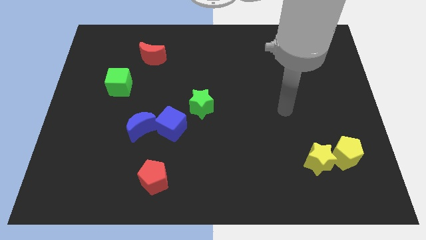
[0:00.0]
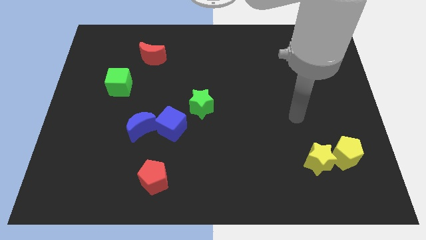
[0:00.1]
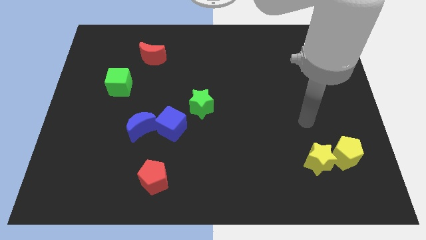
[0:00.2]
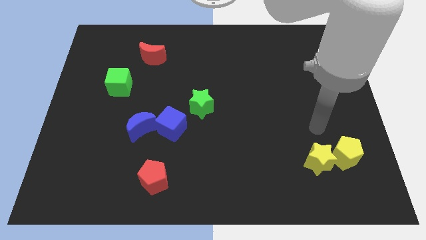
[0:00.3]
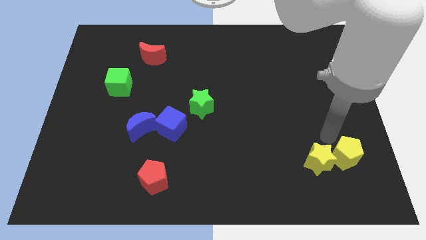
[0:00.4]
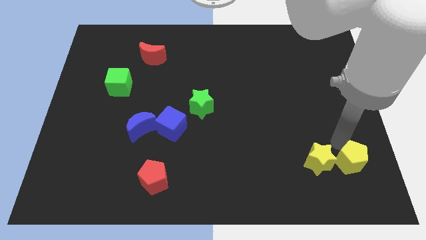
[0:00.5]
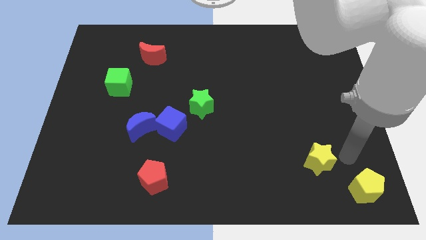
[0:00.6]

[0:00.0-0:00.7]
separate the yellow star from the yellow pentagon

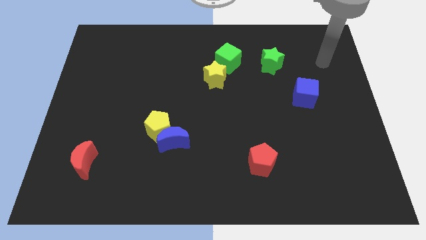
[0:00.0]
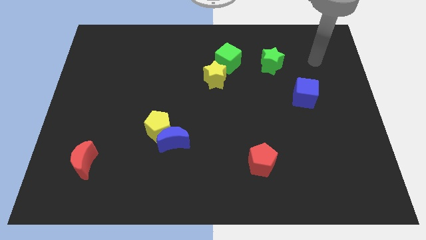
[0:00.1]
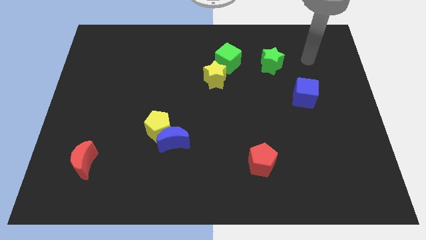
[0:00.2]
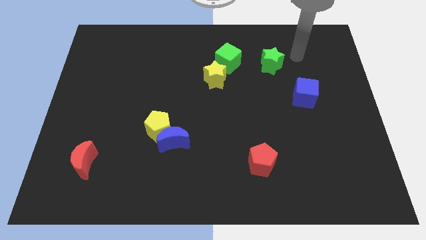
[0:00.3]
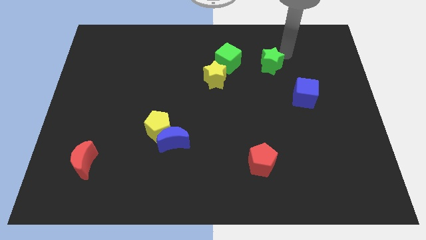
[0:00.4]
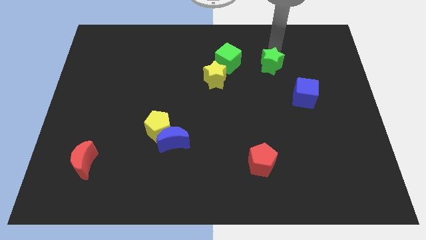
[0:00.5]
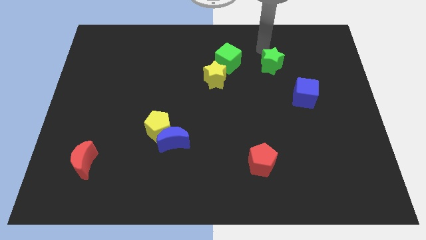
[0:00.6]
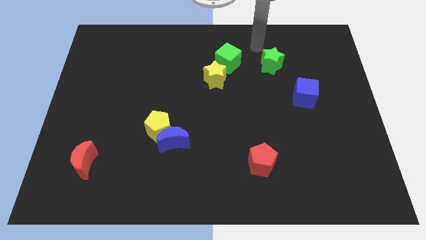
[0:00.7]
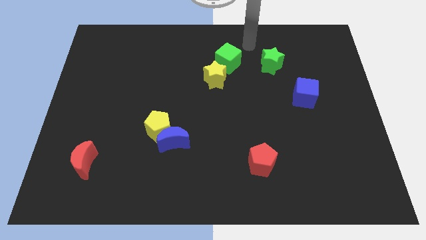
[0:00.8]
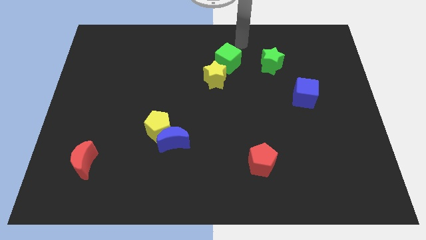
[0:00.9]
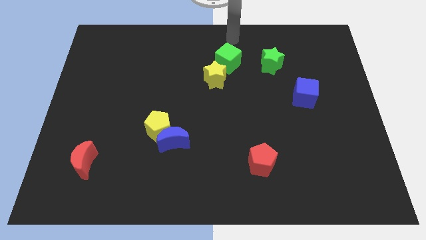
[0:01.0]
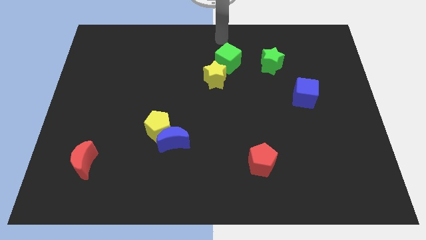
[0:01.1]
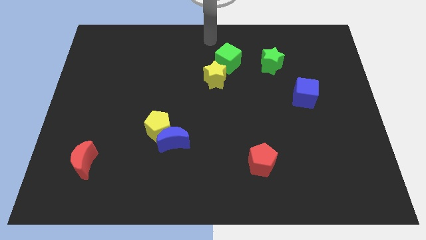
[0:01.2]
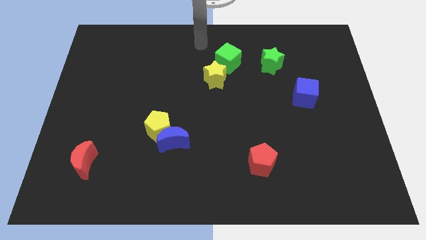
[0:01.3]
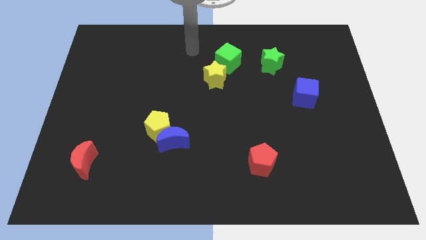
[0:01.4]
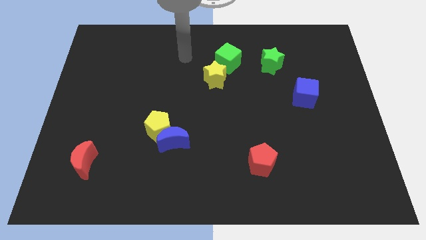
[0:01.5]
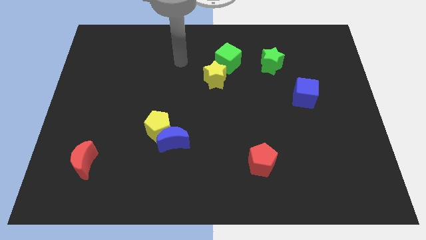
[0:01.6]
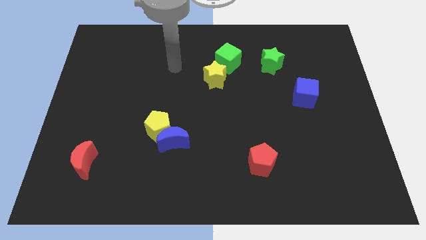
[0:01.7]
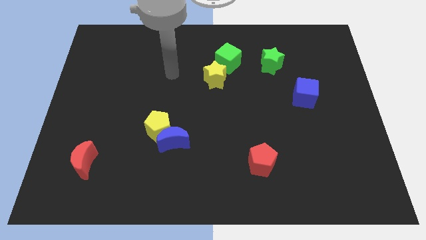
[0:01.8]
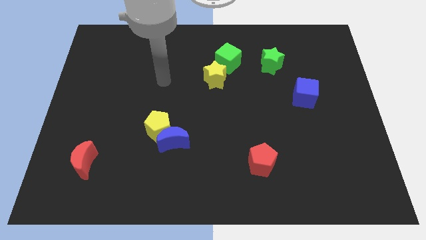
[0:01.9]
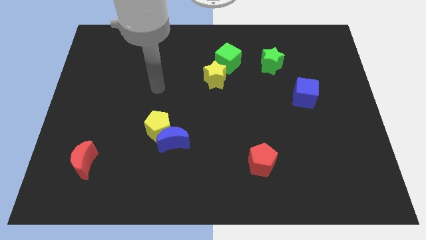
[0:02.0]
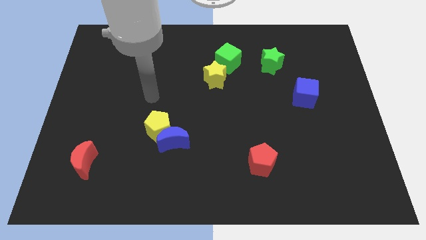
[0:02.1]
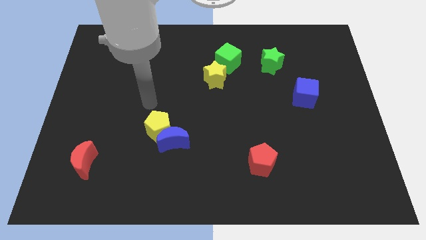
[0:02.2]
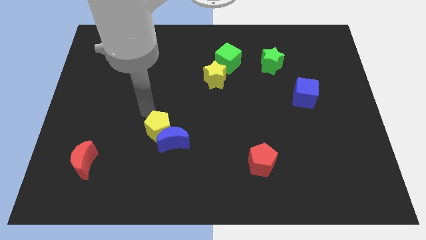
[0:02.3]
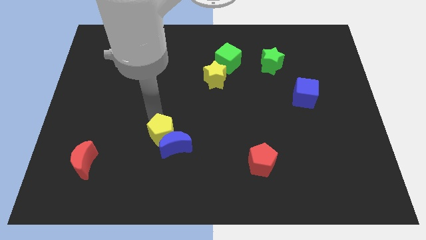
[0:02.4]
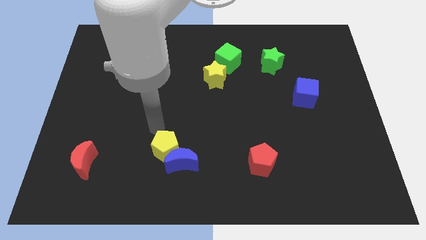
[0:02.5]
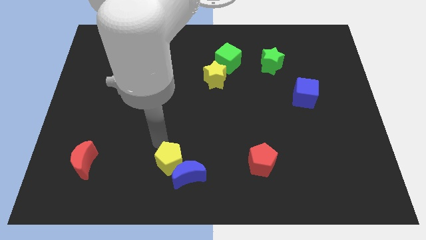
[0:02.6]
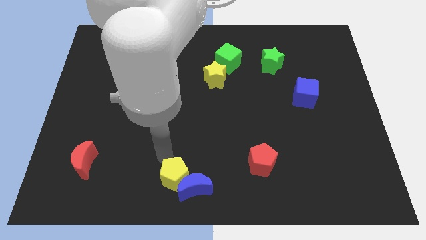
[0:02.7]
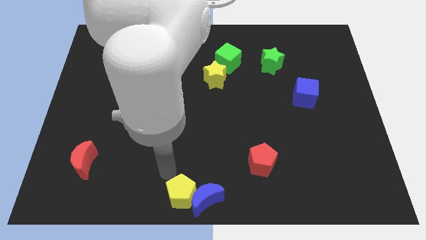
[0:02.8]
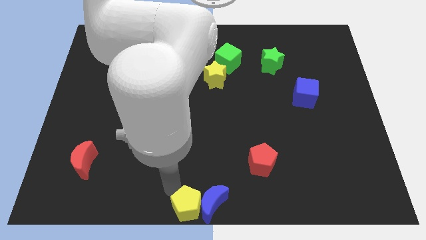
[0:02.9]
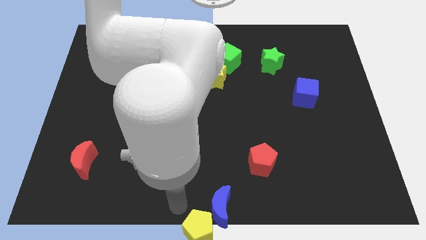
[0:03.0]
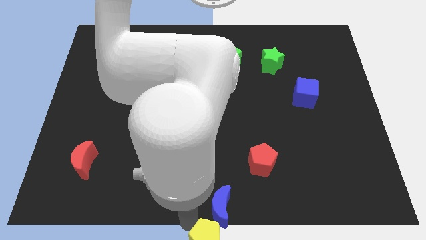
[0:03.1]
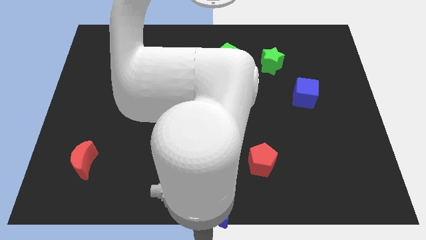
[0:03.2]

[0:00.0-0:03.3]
separate the blue moon from the yellow pentagon

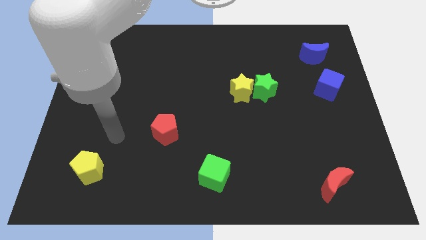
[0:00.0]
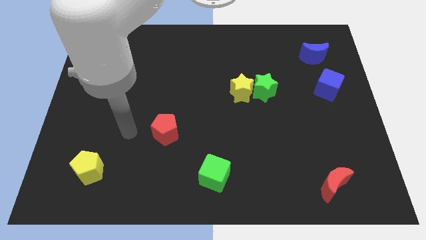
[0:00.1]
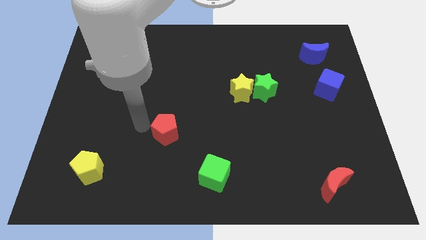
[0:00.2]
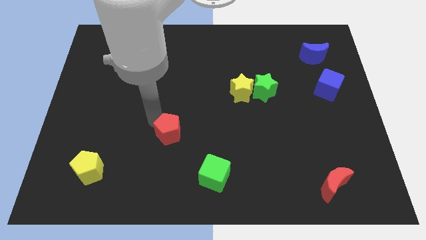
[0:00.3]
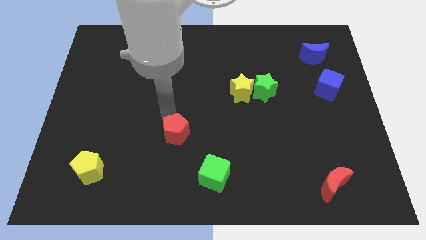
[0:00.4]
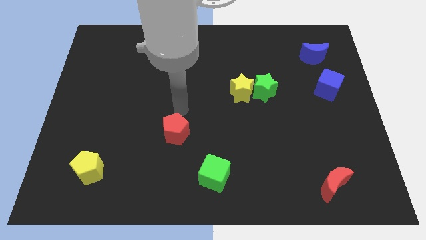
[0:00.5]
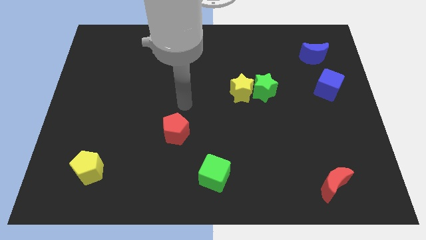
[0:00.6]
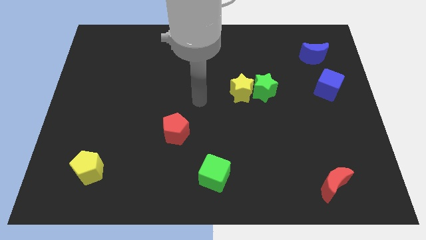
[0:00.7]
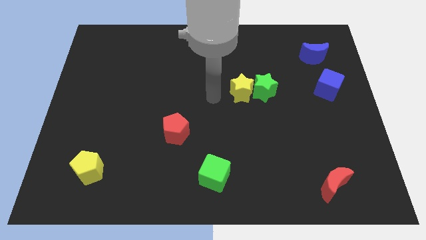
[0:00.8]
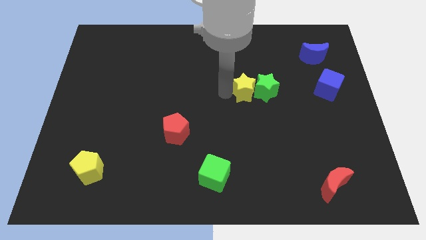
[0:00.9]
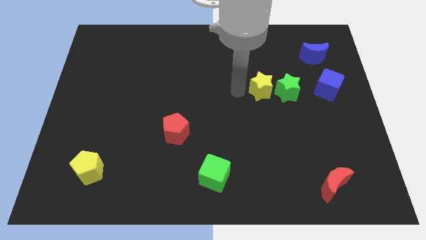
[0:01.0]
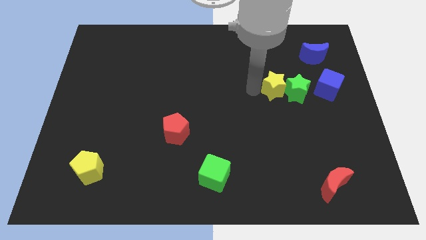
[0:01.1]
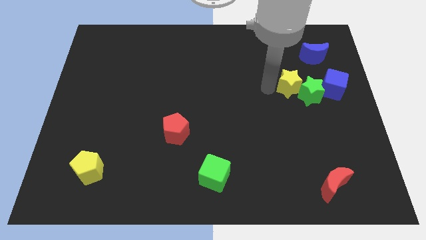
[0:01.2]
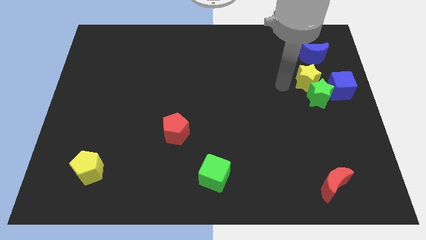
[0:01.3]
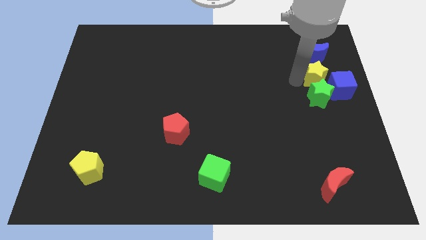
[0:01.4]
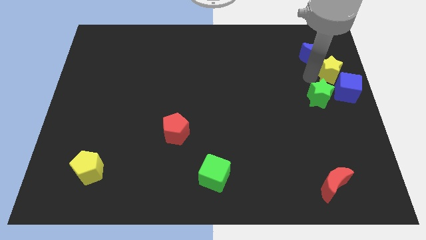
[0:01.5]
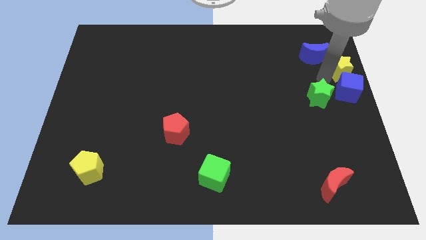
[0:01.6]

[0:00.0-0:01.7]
move the green star away from the yellow star

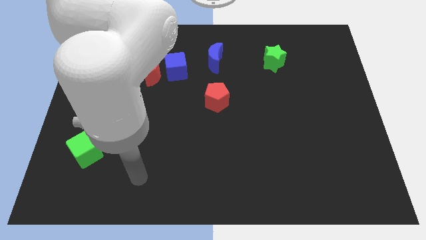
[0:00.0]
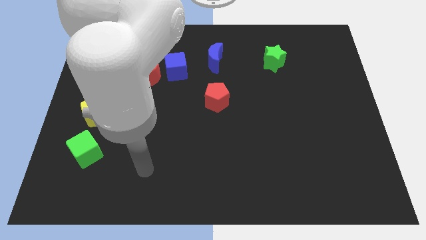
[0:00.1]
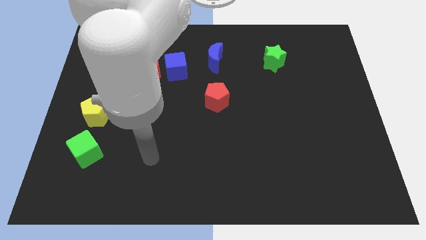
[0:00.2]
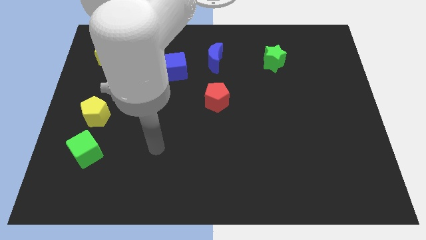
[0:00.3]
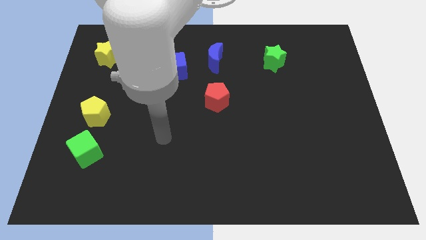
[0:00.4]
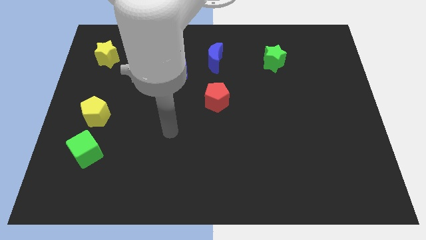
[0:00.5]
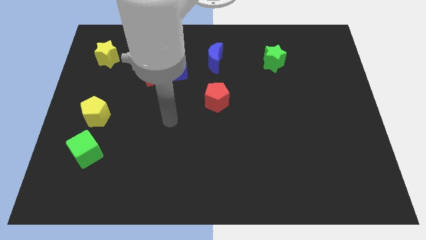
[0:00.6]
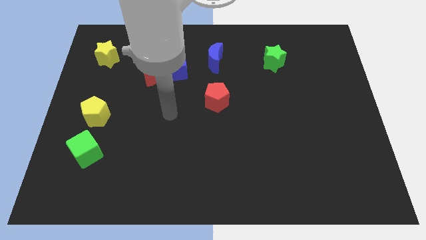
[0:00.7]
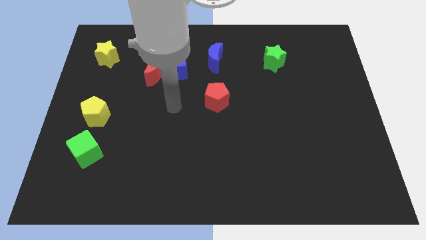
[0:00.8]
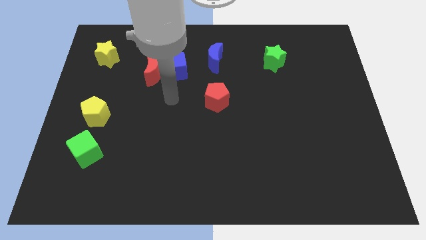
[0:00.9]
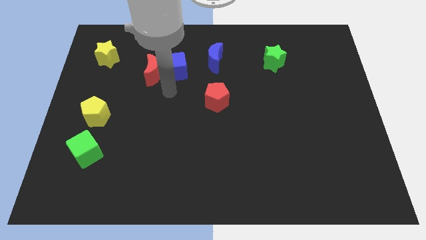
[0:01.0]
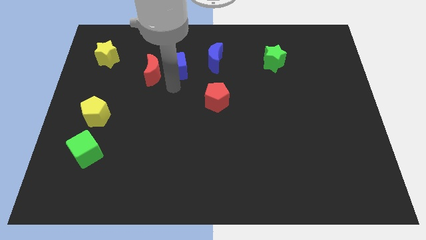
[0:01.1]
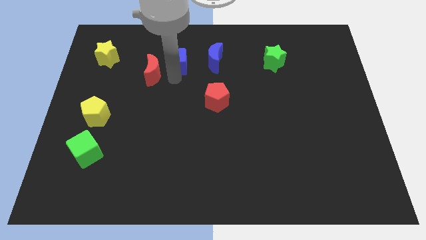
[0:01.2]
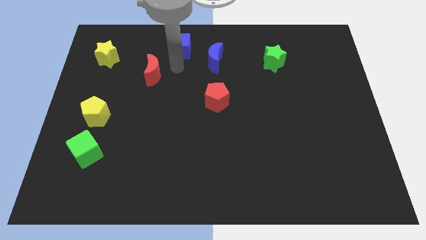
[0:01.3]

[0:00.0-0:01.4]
pull the red moon apart from the blue cube

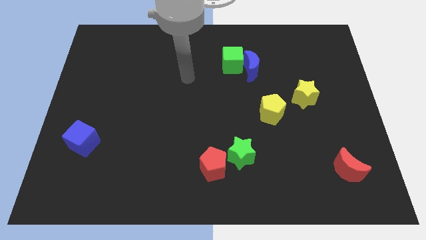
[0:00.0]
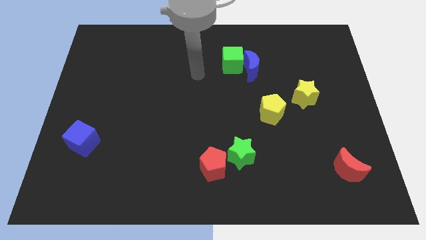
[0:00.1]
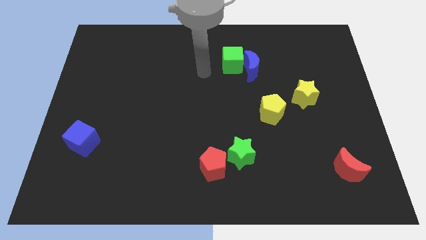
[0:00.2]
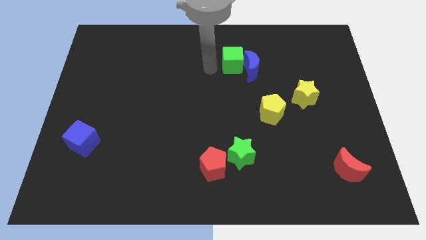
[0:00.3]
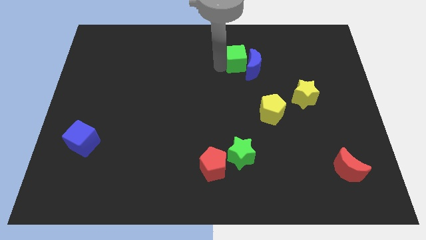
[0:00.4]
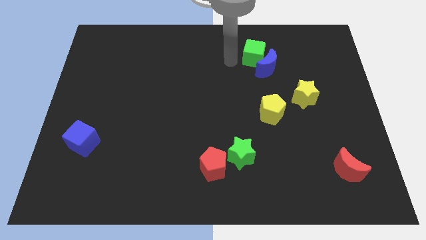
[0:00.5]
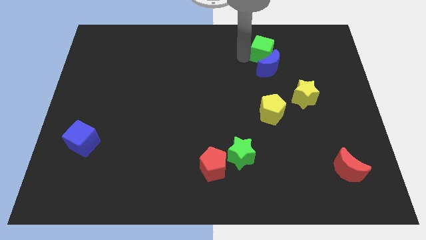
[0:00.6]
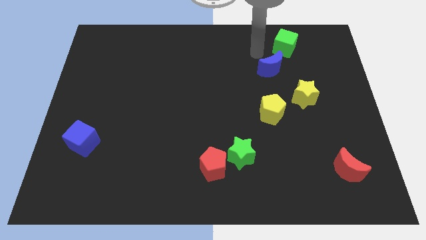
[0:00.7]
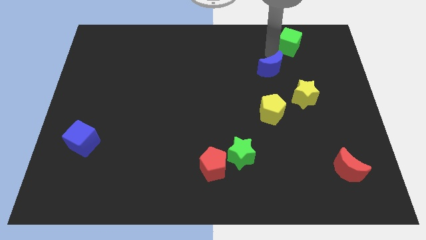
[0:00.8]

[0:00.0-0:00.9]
separate the blue moon from the green cube

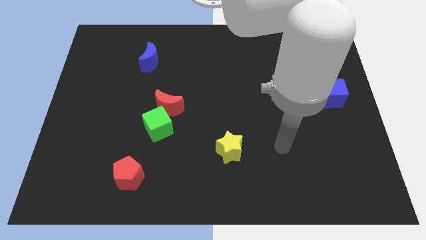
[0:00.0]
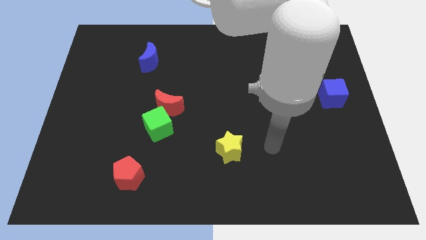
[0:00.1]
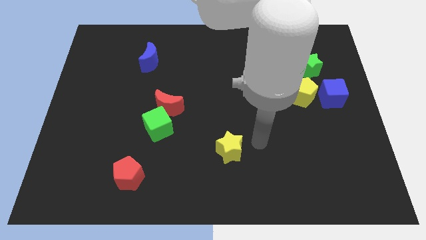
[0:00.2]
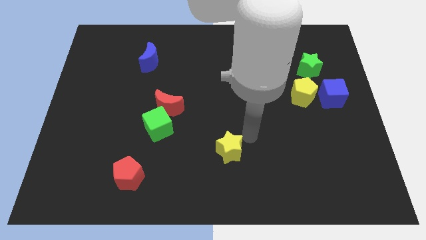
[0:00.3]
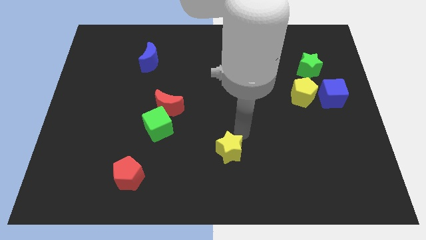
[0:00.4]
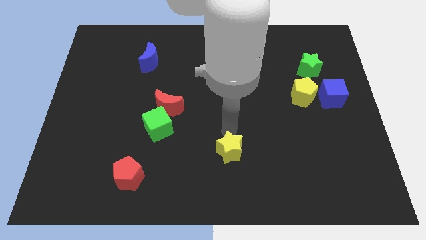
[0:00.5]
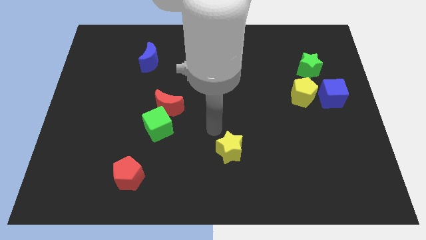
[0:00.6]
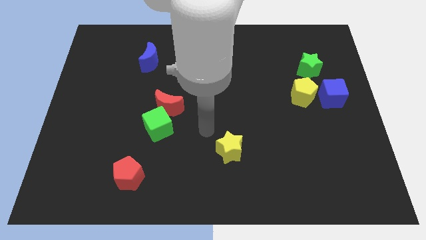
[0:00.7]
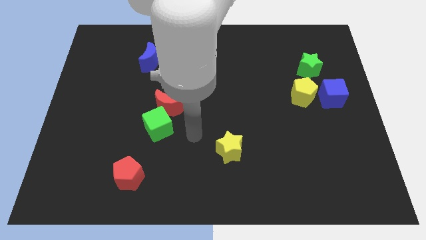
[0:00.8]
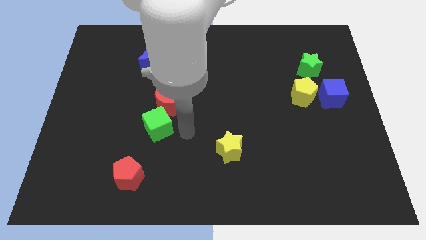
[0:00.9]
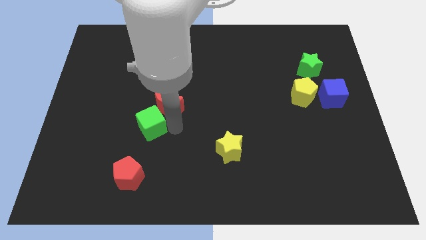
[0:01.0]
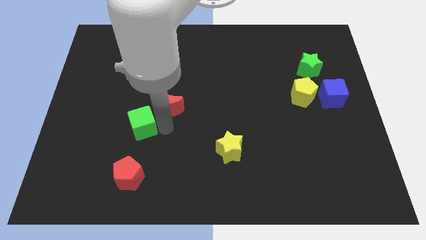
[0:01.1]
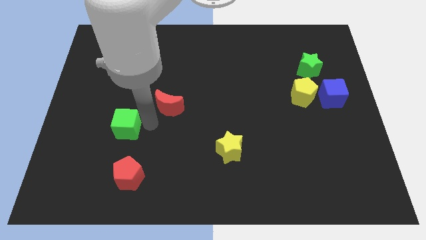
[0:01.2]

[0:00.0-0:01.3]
move the red moon away from the green cube
